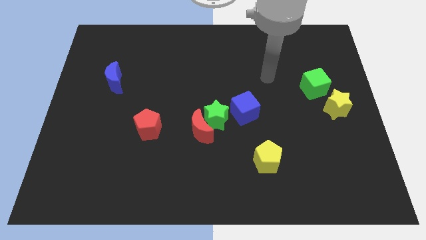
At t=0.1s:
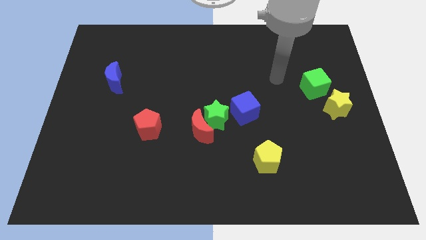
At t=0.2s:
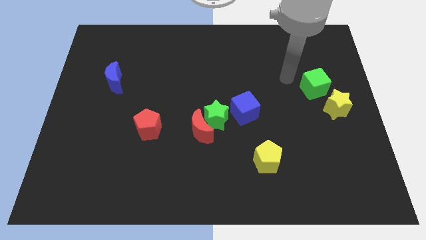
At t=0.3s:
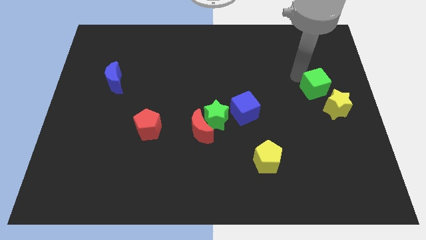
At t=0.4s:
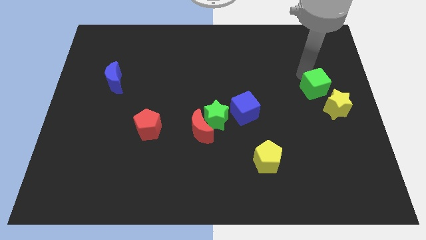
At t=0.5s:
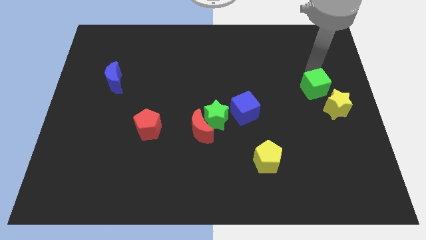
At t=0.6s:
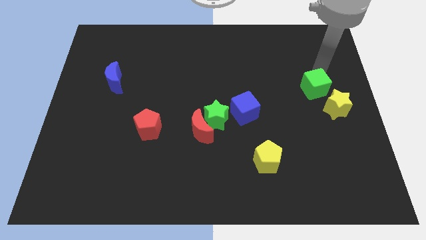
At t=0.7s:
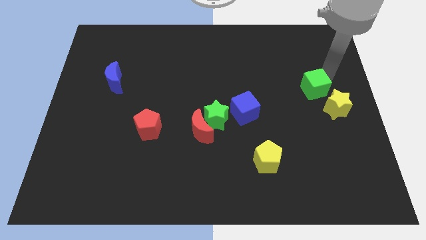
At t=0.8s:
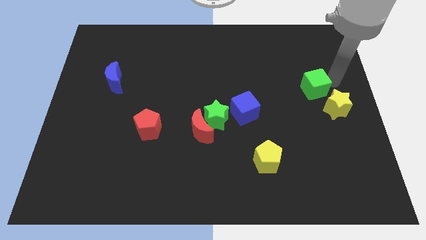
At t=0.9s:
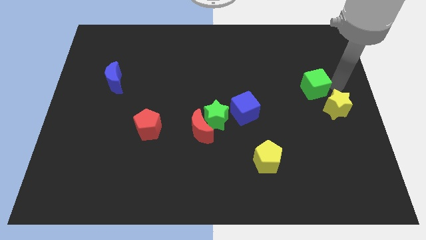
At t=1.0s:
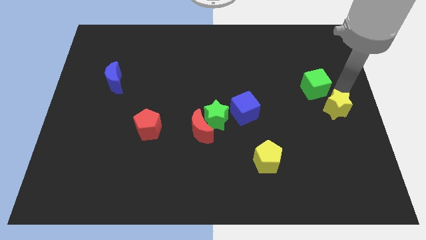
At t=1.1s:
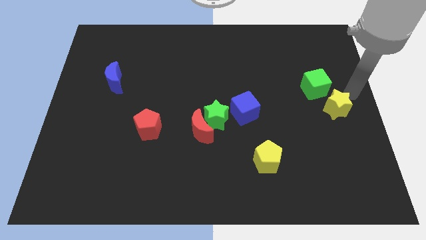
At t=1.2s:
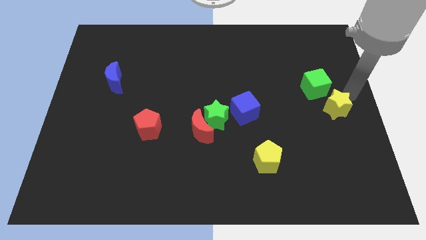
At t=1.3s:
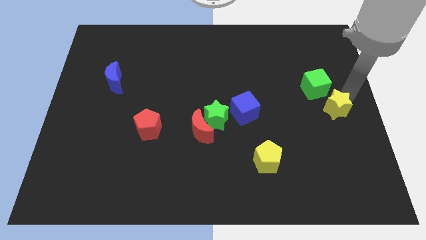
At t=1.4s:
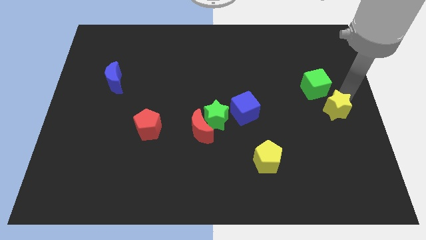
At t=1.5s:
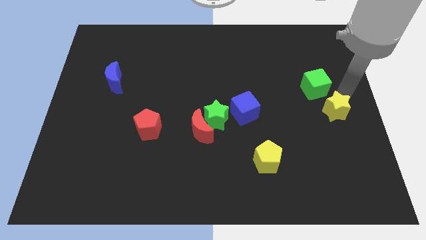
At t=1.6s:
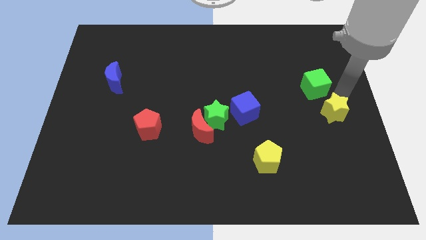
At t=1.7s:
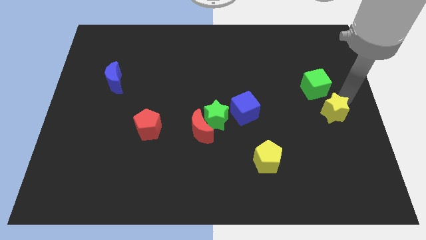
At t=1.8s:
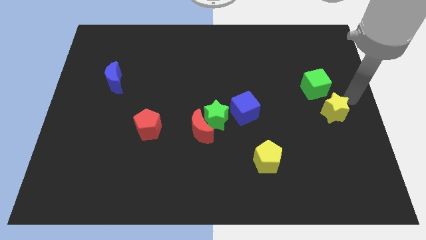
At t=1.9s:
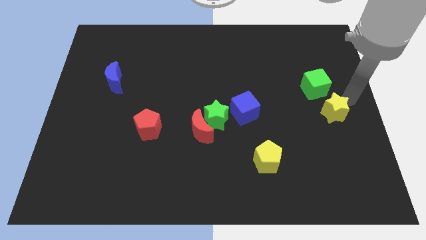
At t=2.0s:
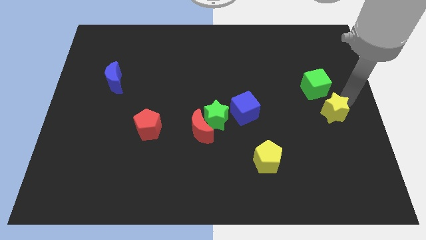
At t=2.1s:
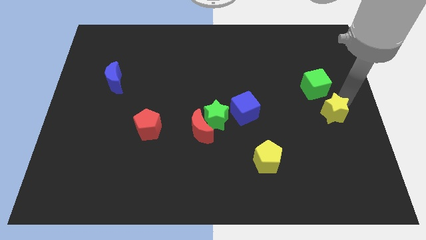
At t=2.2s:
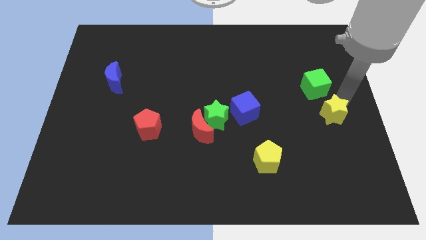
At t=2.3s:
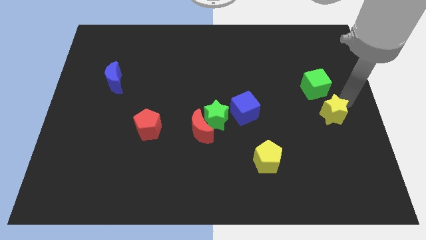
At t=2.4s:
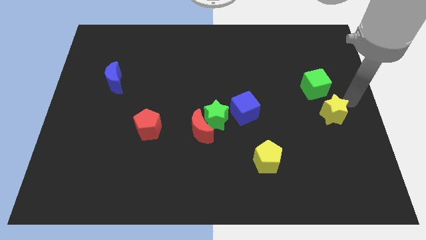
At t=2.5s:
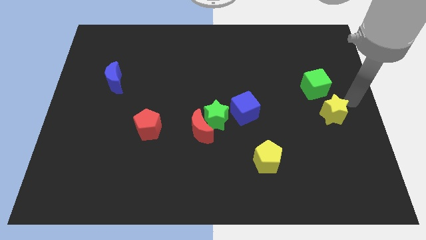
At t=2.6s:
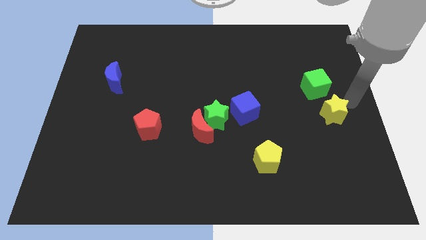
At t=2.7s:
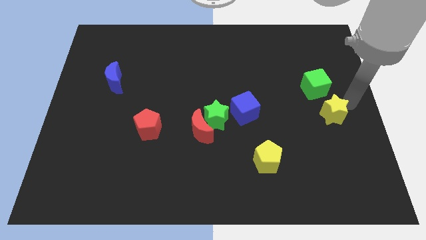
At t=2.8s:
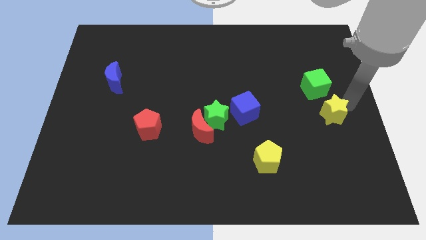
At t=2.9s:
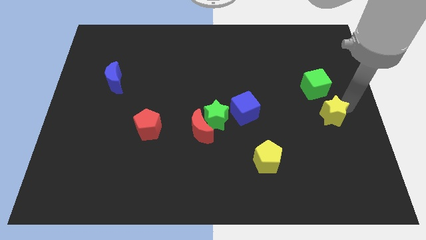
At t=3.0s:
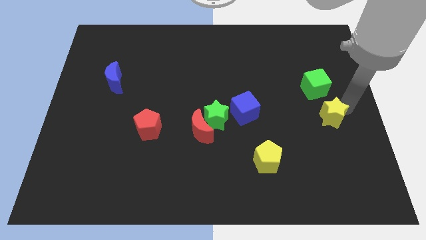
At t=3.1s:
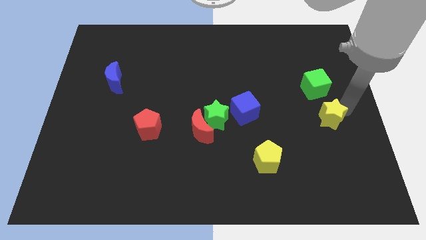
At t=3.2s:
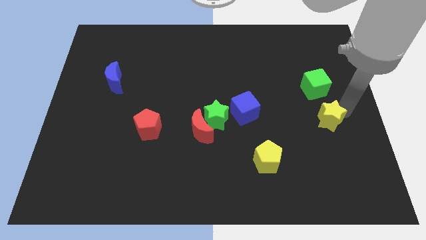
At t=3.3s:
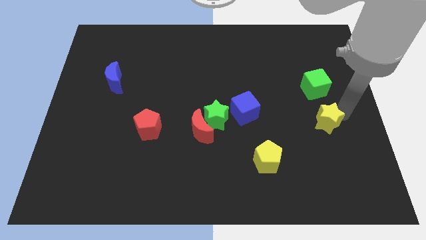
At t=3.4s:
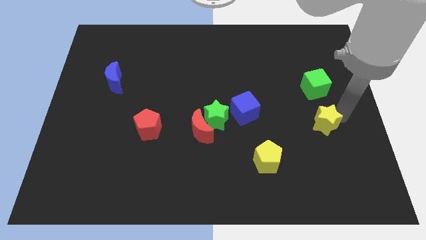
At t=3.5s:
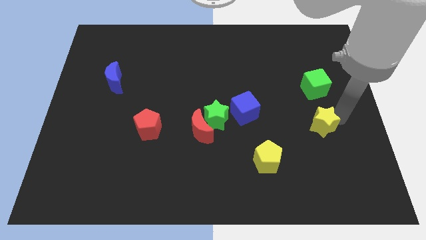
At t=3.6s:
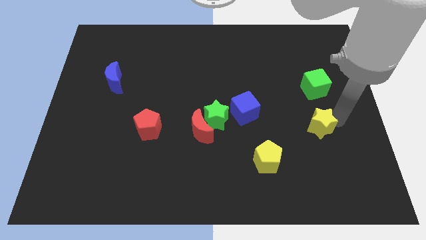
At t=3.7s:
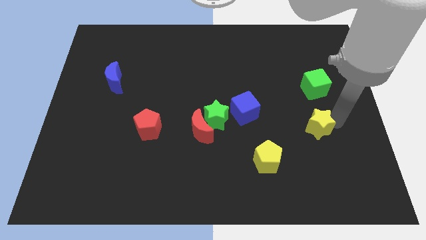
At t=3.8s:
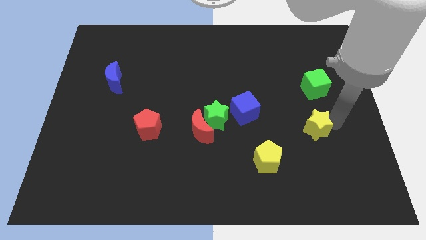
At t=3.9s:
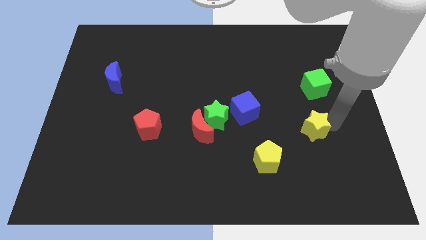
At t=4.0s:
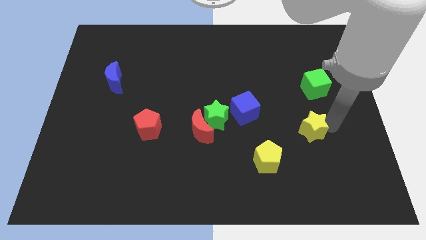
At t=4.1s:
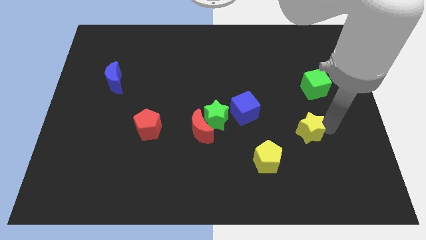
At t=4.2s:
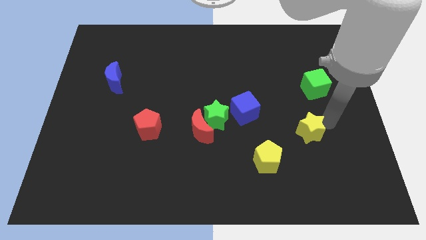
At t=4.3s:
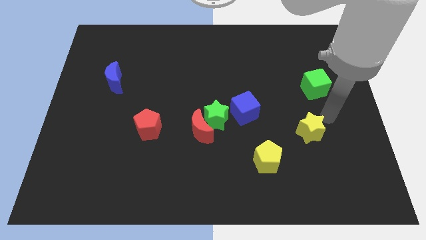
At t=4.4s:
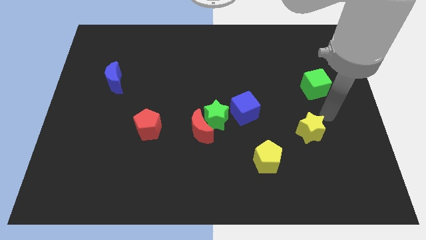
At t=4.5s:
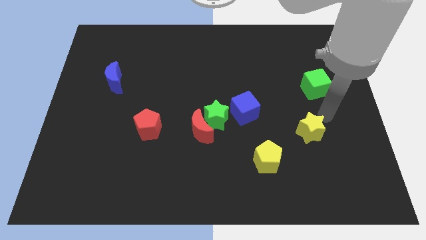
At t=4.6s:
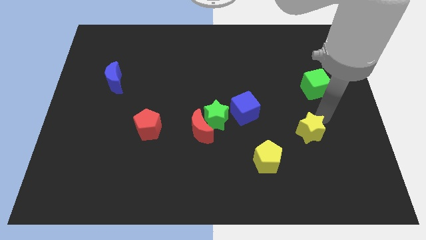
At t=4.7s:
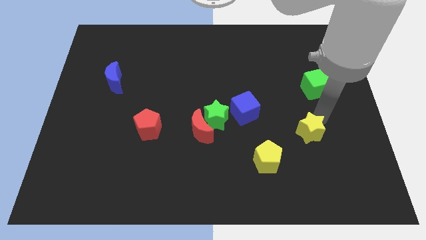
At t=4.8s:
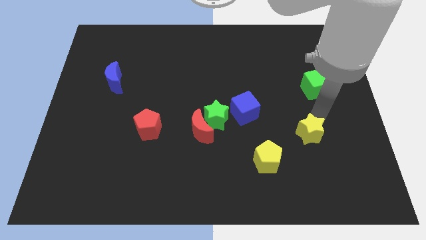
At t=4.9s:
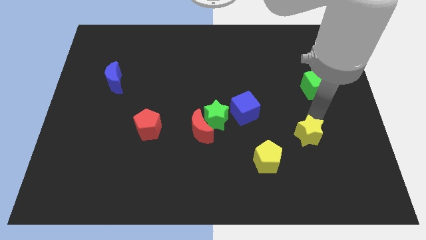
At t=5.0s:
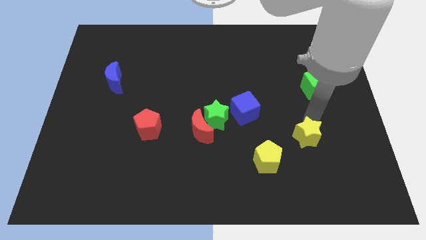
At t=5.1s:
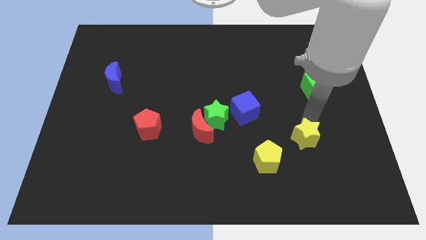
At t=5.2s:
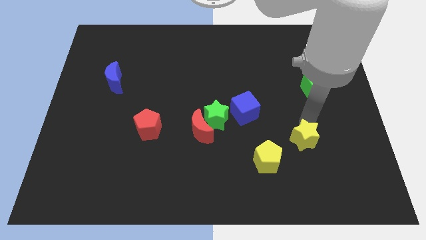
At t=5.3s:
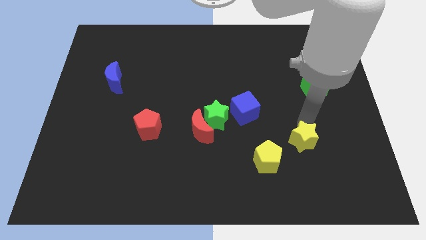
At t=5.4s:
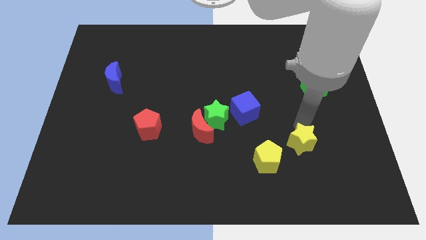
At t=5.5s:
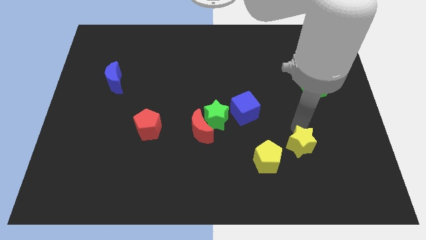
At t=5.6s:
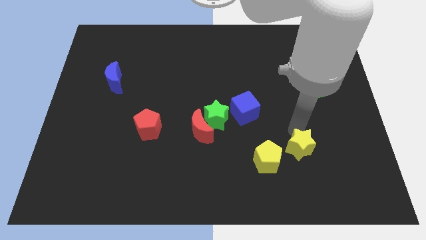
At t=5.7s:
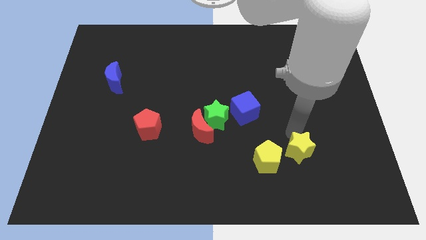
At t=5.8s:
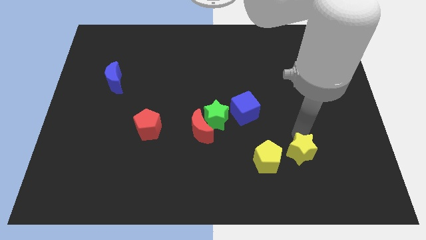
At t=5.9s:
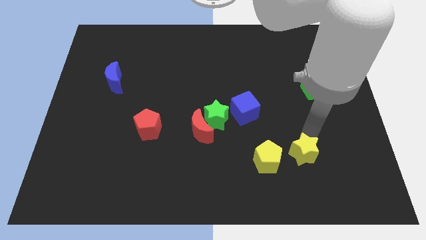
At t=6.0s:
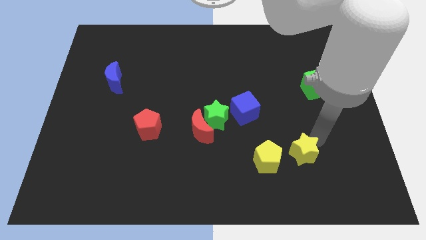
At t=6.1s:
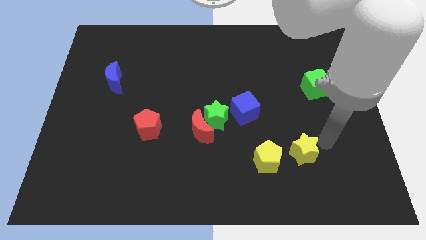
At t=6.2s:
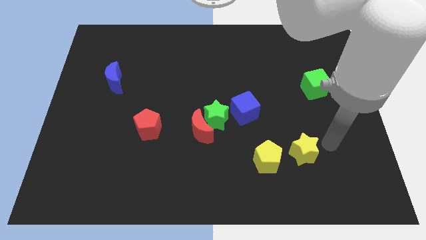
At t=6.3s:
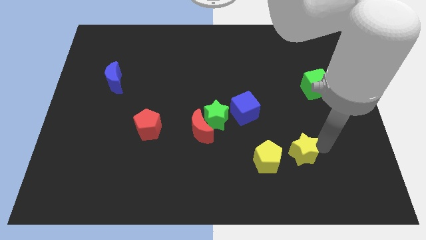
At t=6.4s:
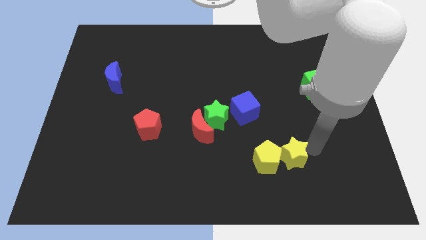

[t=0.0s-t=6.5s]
put the yellow star to the yellow pentagon
